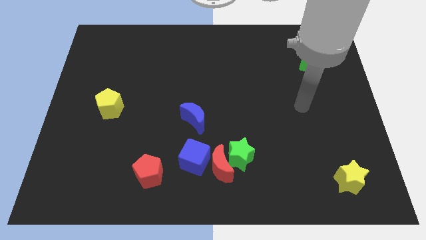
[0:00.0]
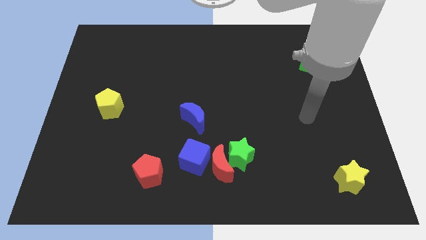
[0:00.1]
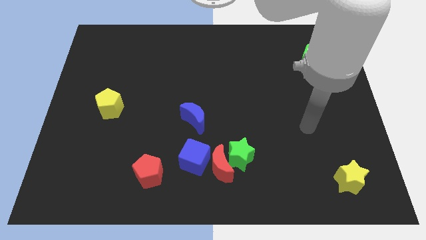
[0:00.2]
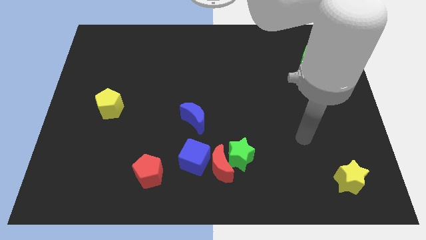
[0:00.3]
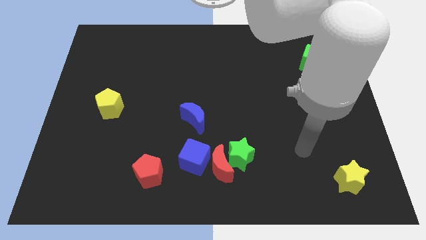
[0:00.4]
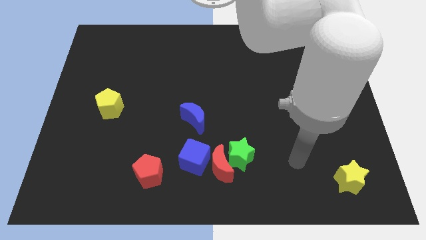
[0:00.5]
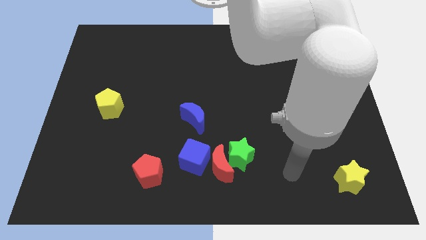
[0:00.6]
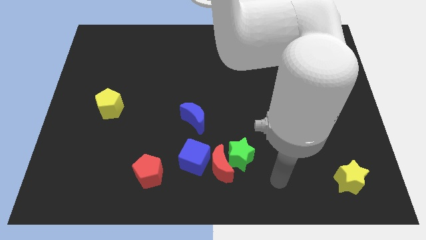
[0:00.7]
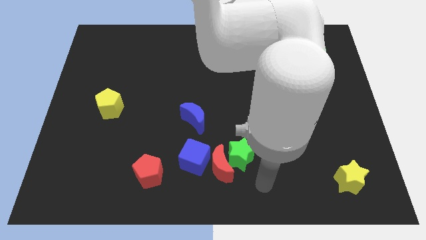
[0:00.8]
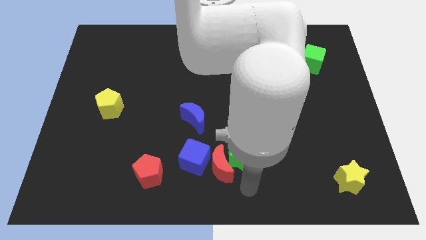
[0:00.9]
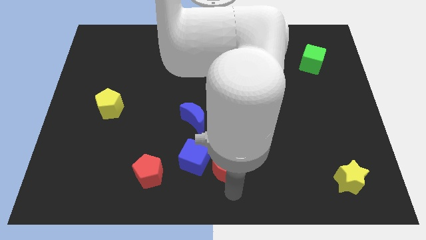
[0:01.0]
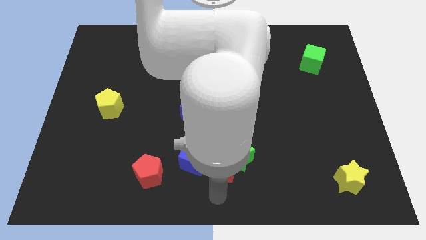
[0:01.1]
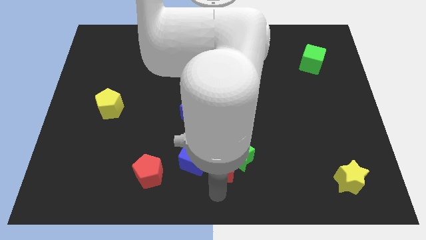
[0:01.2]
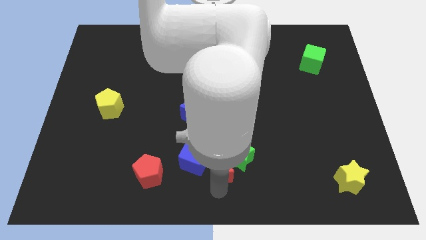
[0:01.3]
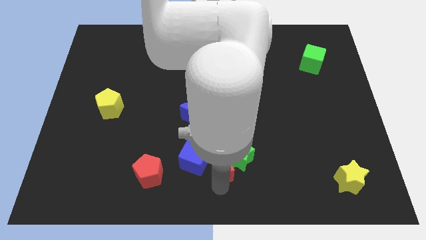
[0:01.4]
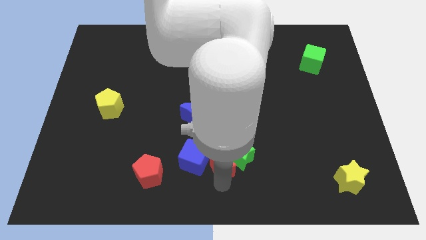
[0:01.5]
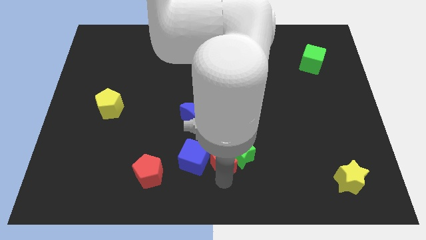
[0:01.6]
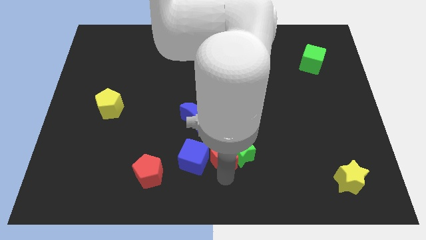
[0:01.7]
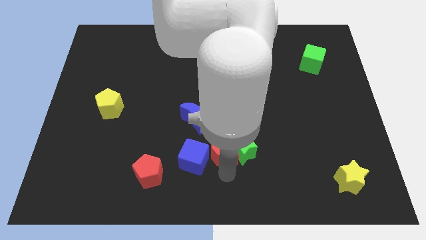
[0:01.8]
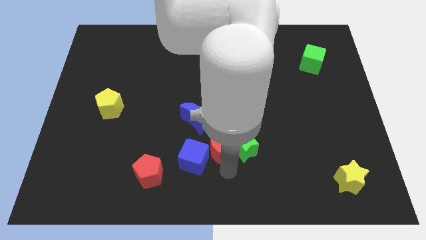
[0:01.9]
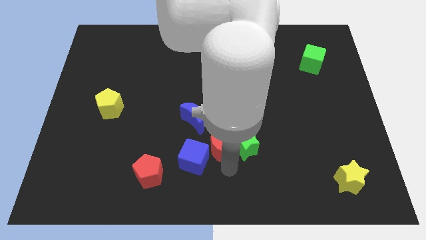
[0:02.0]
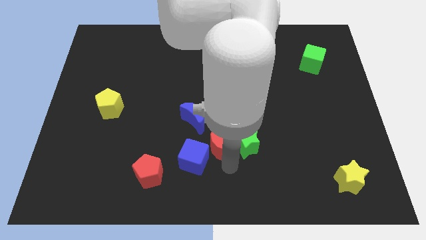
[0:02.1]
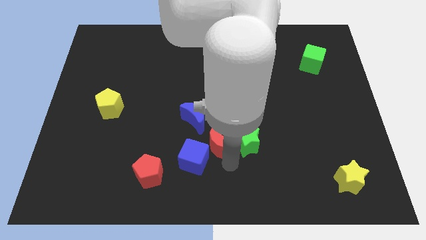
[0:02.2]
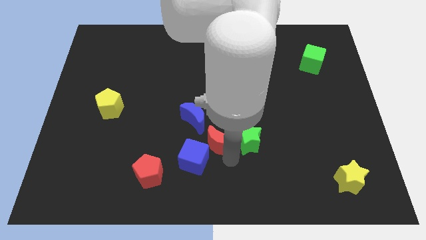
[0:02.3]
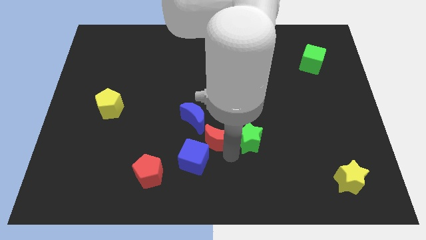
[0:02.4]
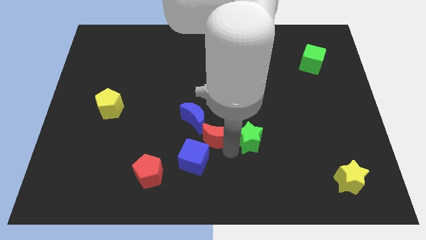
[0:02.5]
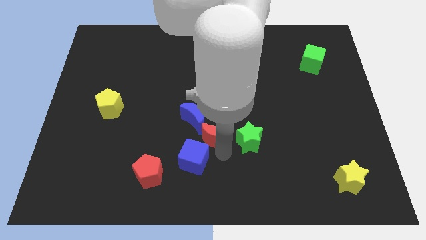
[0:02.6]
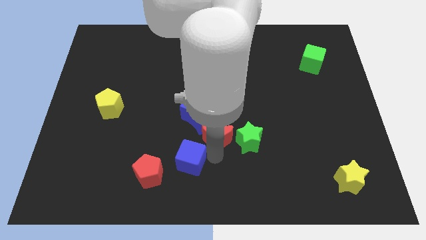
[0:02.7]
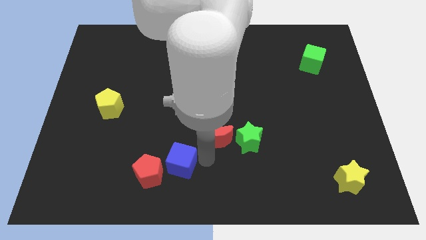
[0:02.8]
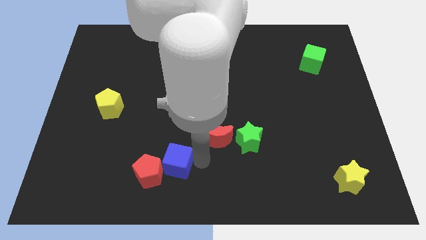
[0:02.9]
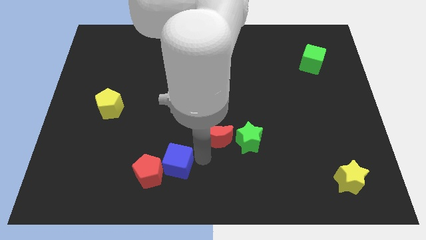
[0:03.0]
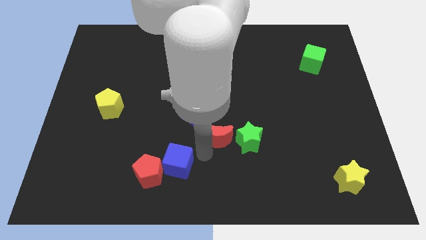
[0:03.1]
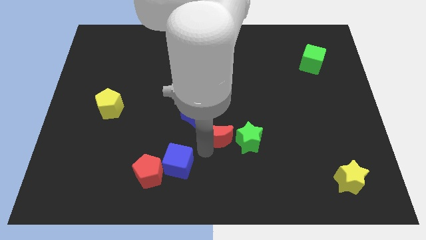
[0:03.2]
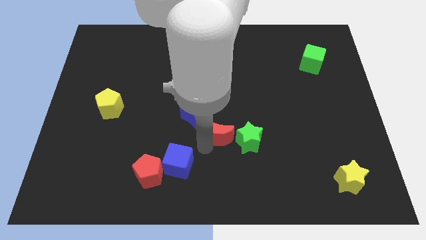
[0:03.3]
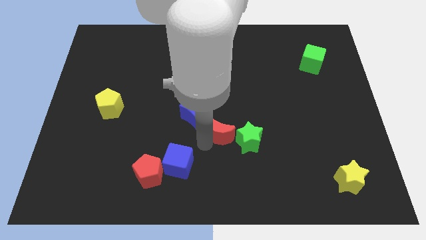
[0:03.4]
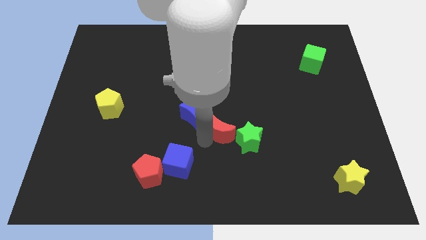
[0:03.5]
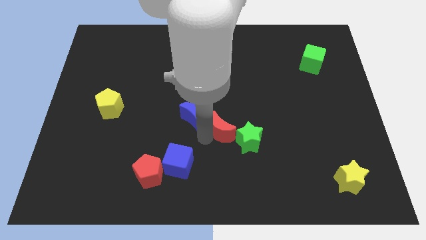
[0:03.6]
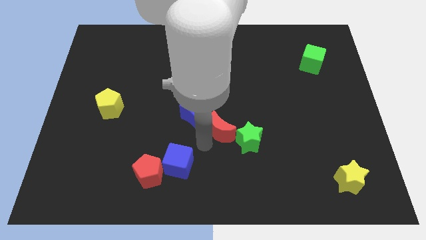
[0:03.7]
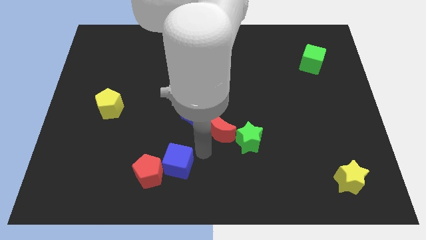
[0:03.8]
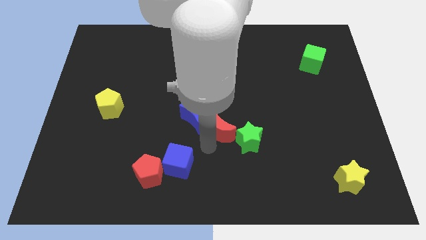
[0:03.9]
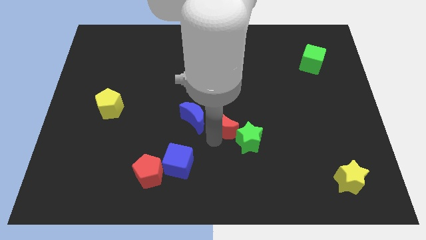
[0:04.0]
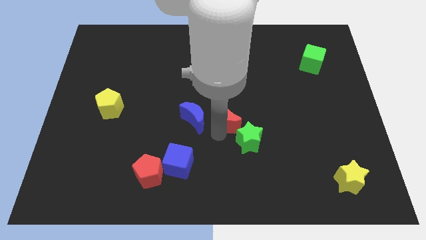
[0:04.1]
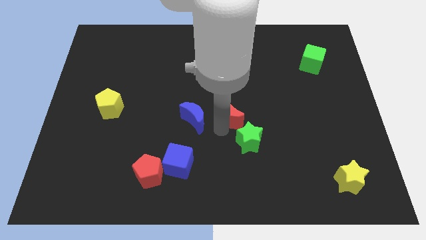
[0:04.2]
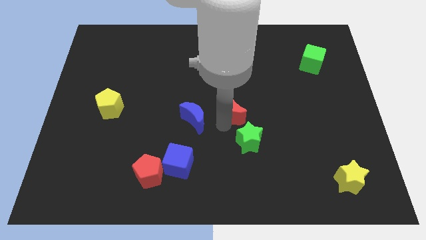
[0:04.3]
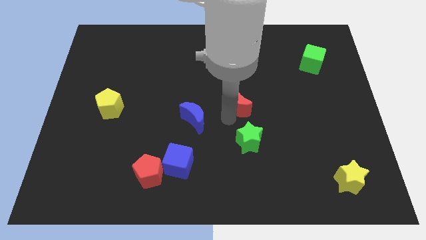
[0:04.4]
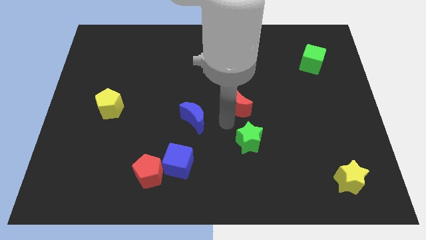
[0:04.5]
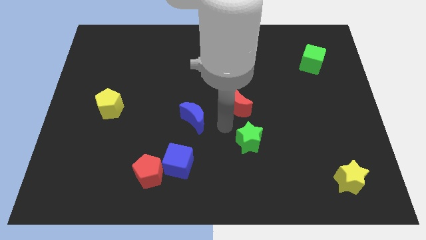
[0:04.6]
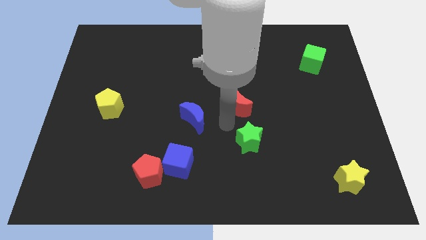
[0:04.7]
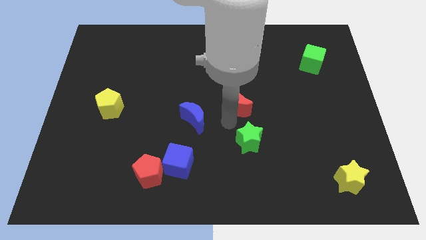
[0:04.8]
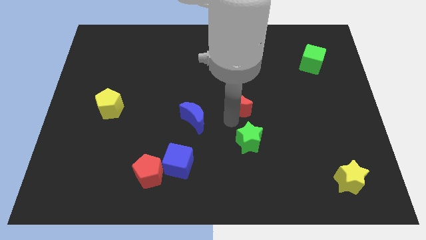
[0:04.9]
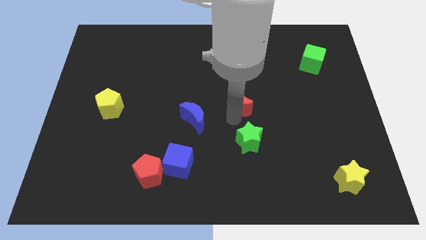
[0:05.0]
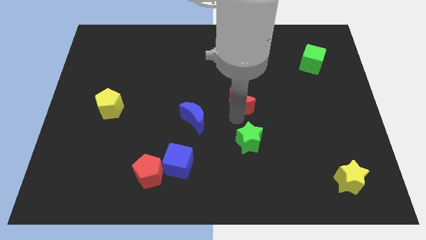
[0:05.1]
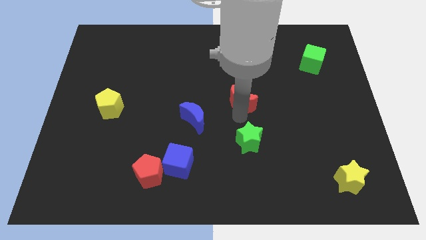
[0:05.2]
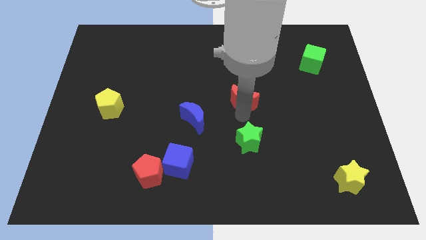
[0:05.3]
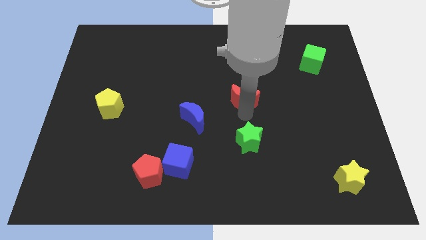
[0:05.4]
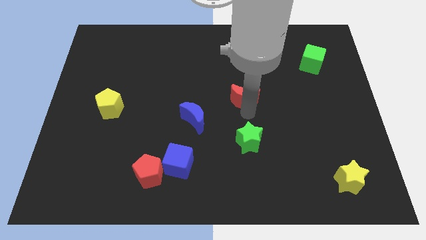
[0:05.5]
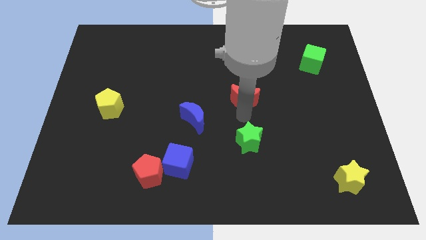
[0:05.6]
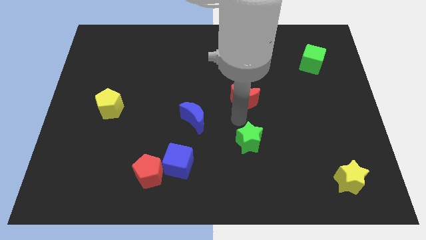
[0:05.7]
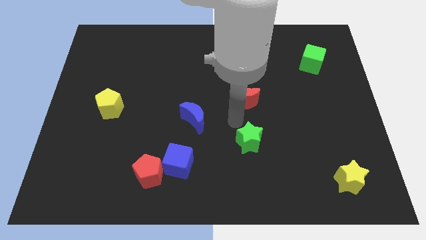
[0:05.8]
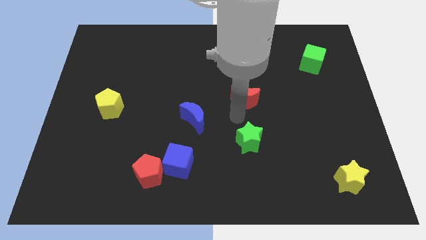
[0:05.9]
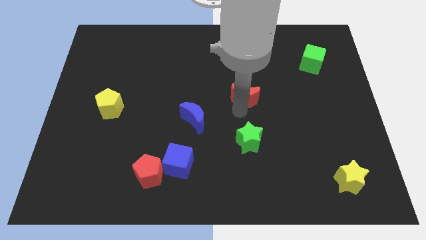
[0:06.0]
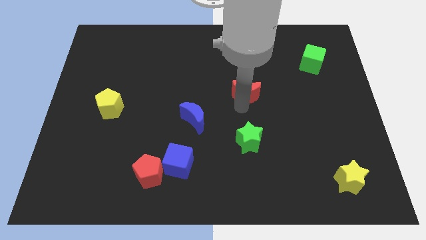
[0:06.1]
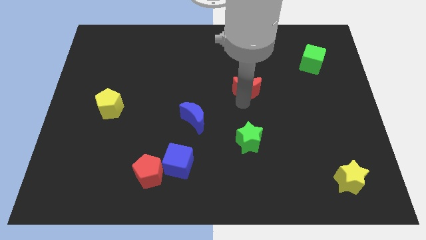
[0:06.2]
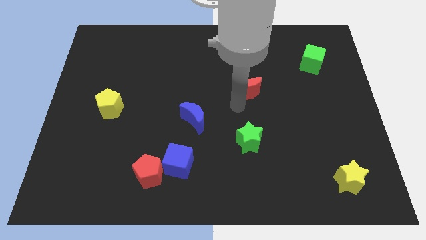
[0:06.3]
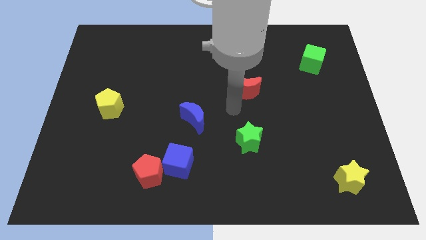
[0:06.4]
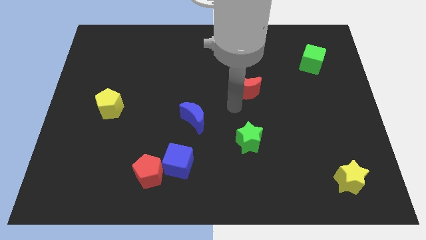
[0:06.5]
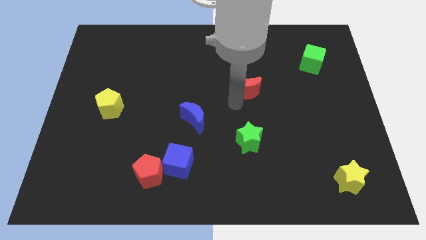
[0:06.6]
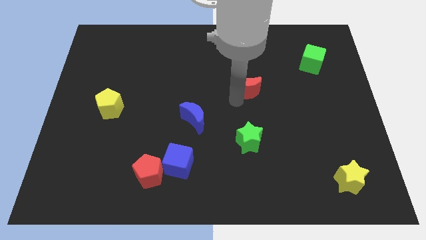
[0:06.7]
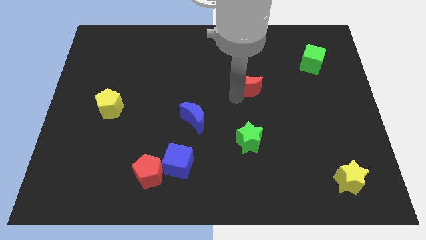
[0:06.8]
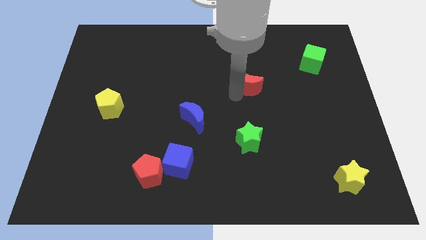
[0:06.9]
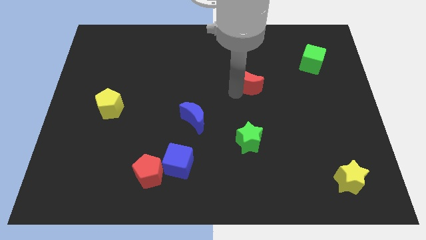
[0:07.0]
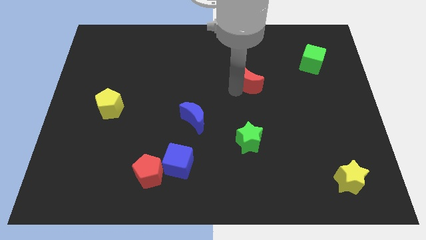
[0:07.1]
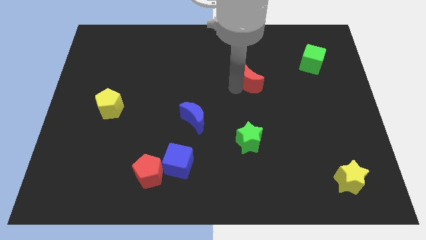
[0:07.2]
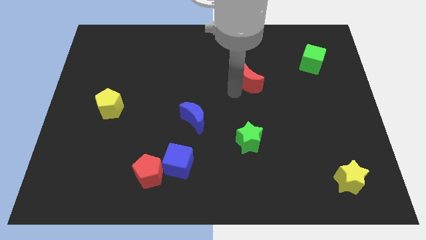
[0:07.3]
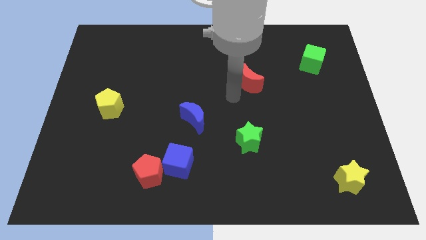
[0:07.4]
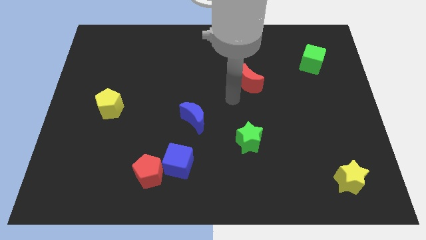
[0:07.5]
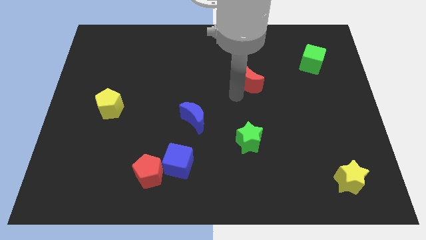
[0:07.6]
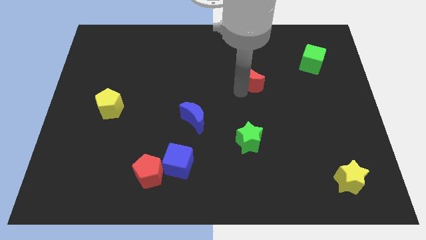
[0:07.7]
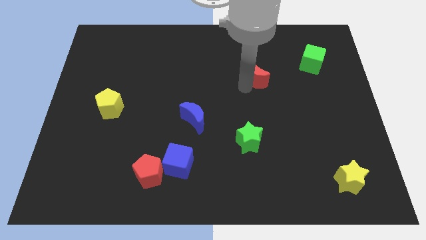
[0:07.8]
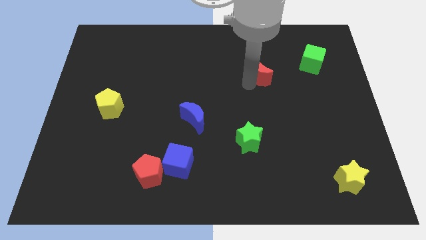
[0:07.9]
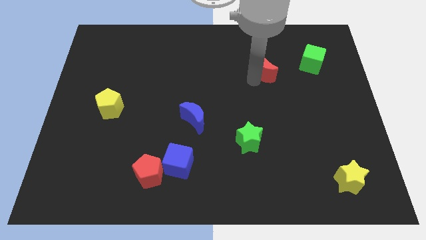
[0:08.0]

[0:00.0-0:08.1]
move the red moon to the left of the green cube
